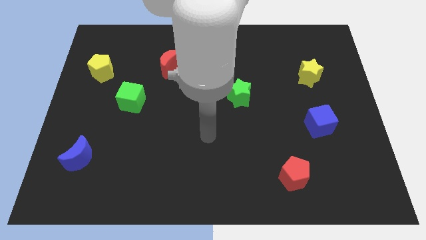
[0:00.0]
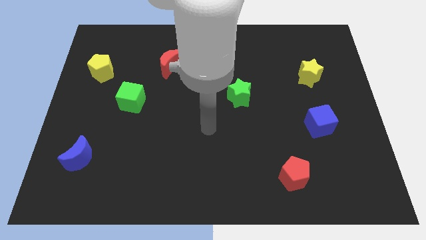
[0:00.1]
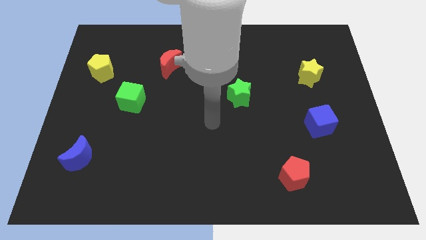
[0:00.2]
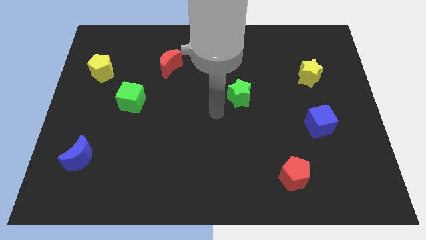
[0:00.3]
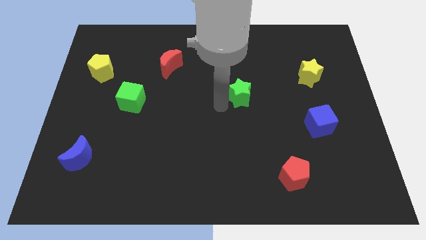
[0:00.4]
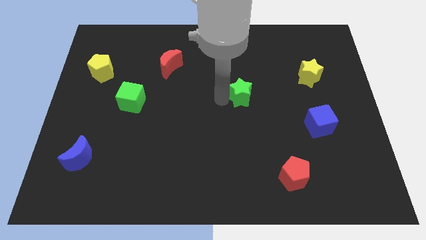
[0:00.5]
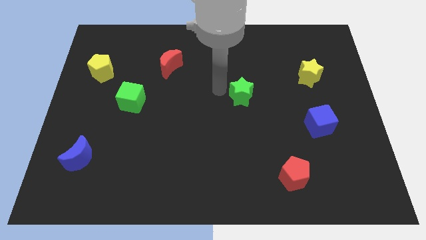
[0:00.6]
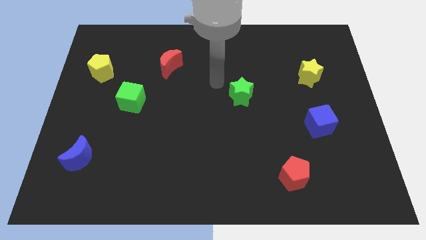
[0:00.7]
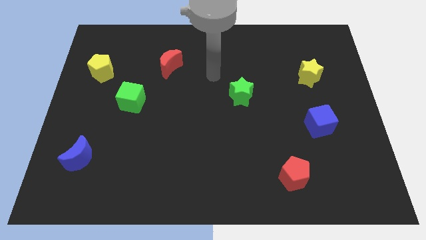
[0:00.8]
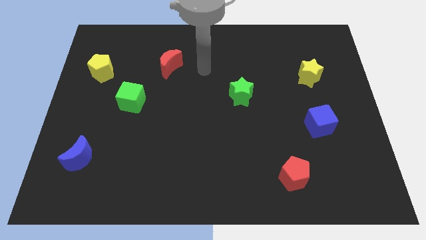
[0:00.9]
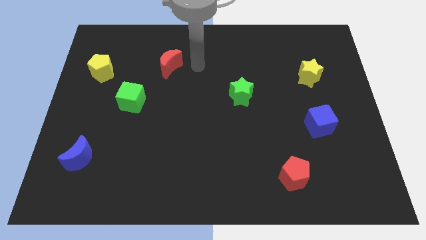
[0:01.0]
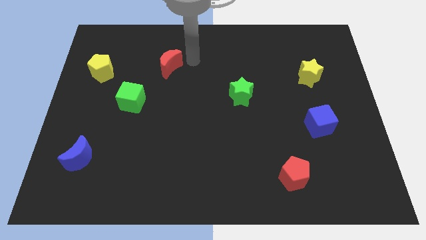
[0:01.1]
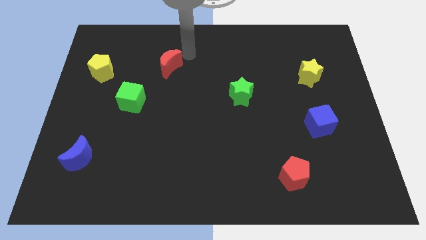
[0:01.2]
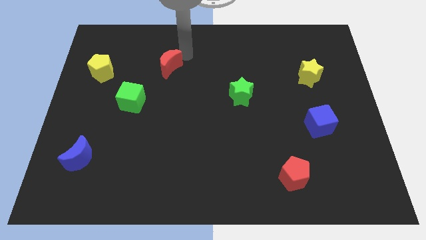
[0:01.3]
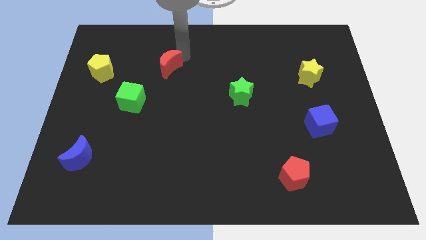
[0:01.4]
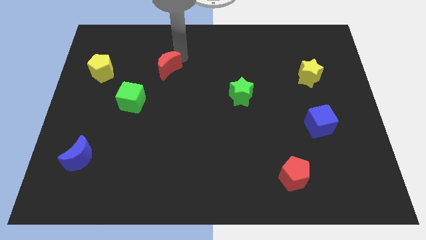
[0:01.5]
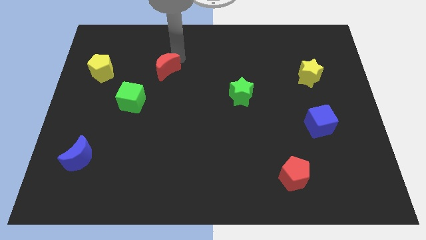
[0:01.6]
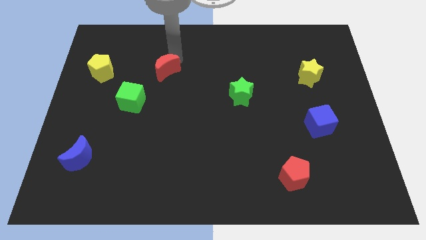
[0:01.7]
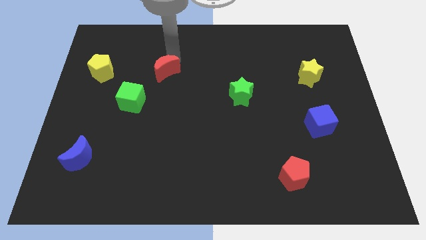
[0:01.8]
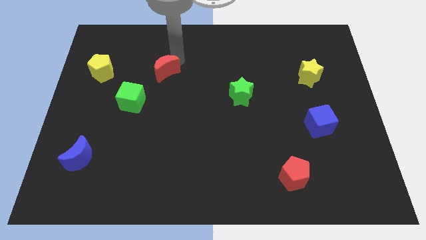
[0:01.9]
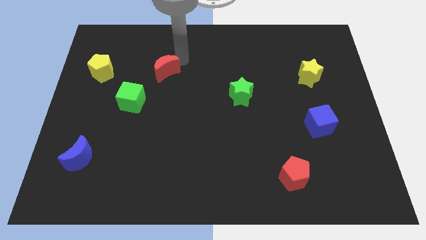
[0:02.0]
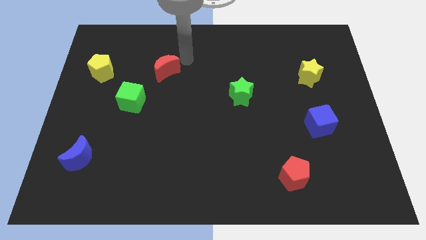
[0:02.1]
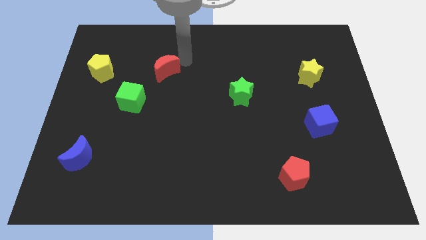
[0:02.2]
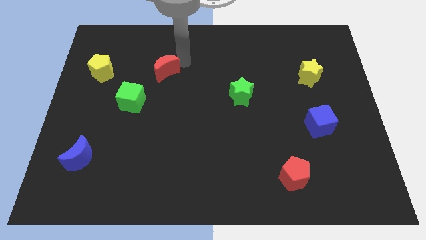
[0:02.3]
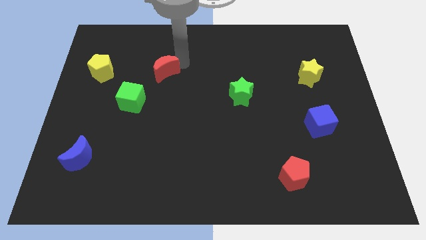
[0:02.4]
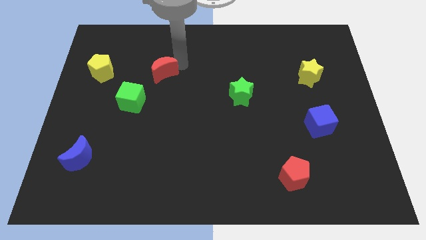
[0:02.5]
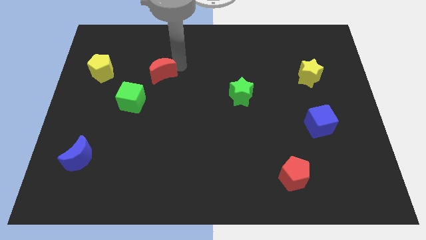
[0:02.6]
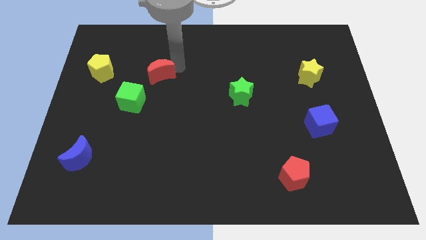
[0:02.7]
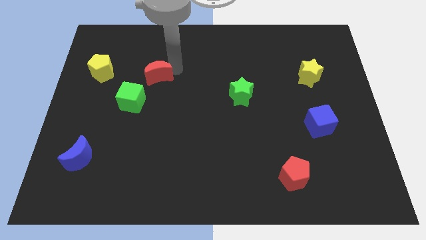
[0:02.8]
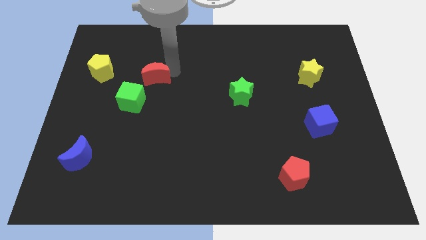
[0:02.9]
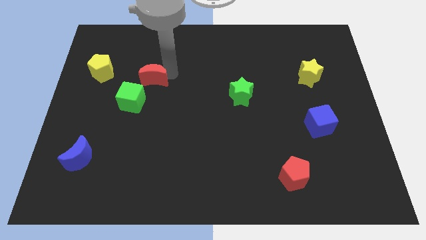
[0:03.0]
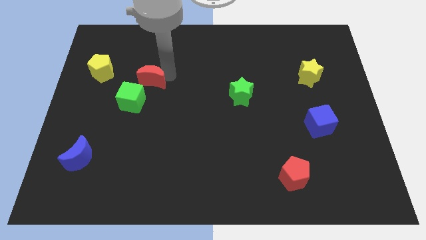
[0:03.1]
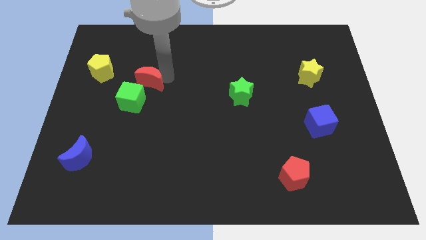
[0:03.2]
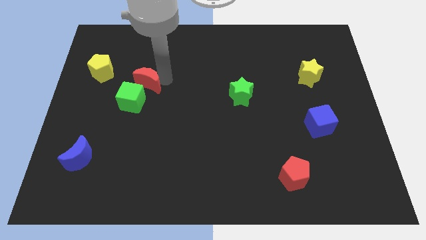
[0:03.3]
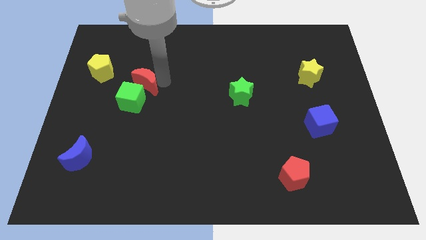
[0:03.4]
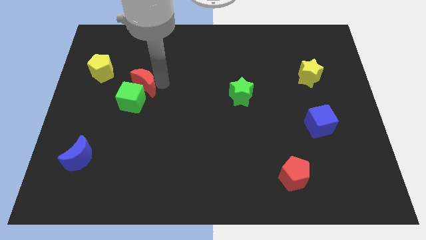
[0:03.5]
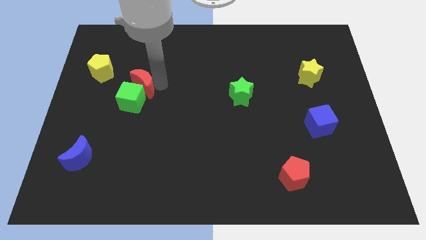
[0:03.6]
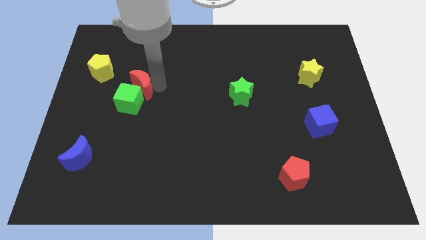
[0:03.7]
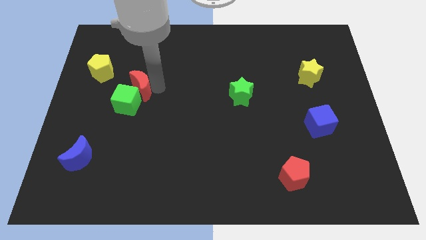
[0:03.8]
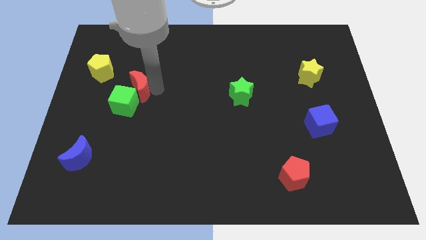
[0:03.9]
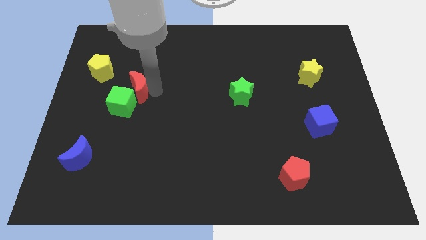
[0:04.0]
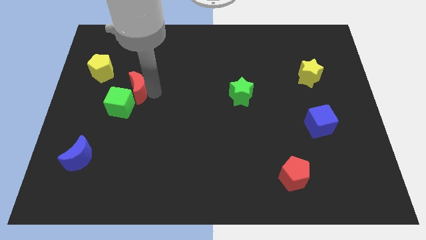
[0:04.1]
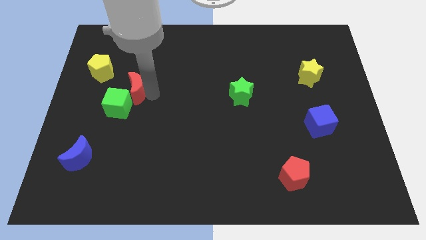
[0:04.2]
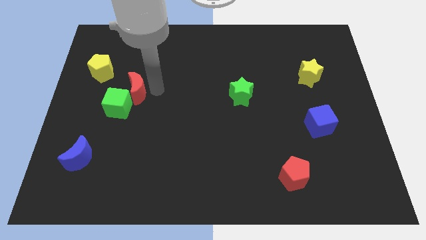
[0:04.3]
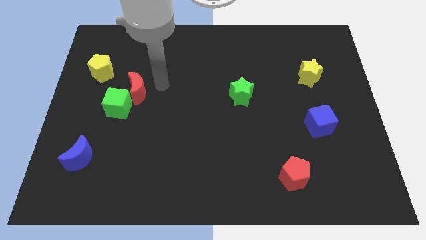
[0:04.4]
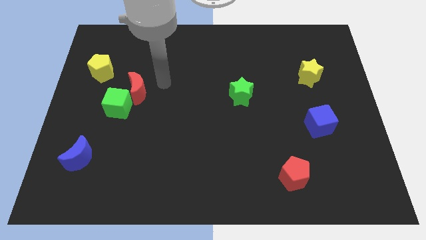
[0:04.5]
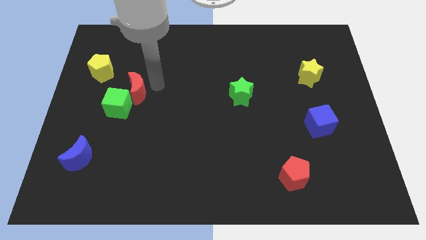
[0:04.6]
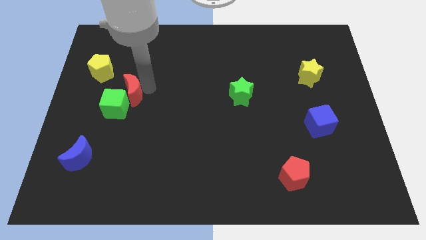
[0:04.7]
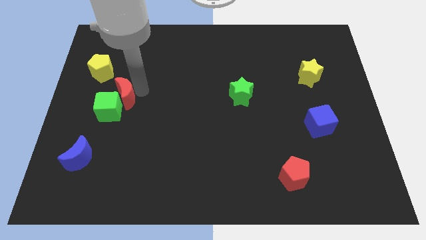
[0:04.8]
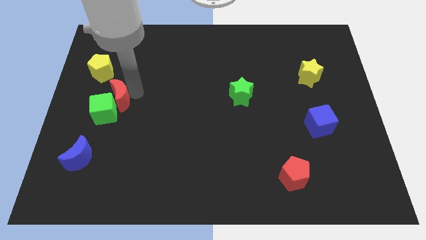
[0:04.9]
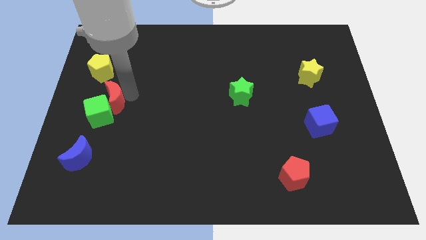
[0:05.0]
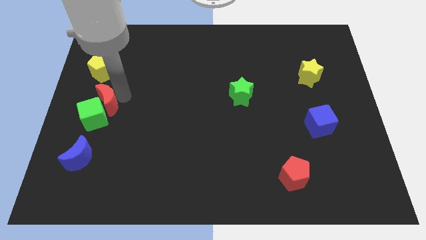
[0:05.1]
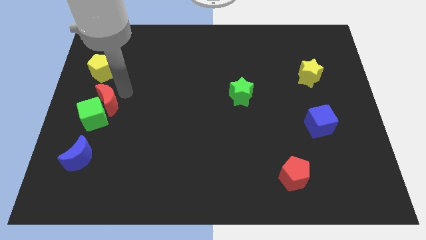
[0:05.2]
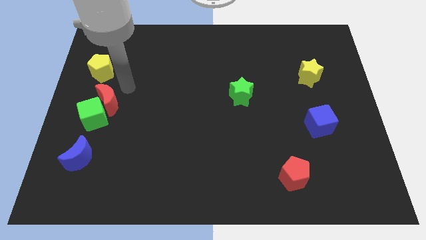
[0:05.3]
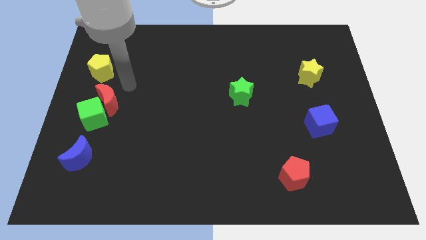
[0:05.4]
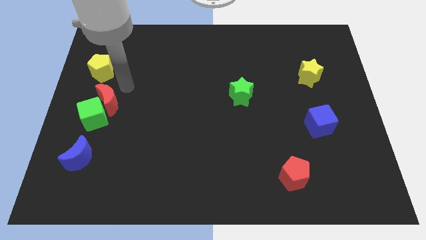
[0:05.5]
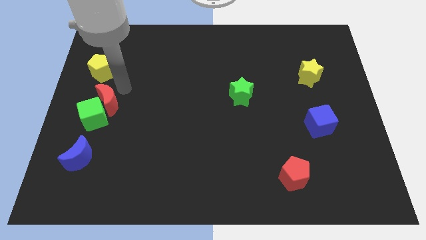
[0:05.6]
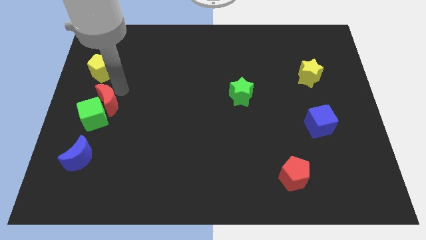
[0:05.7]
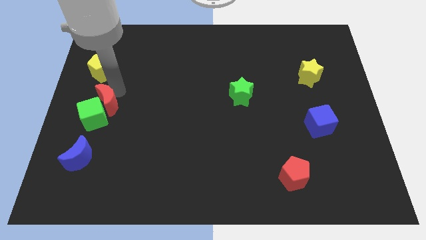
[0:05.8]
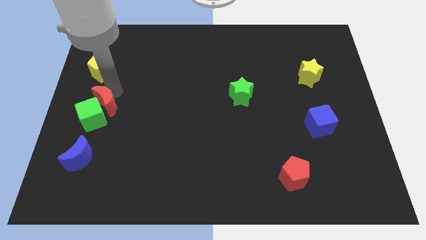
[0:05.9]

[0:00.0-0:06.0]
slide the red moon to the top of the blue moon

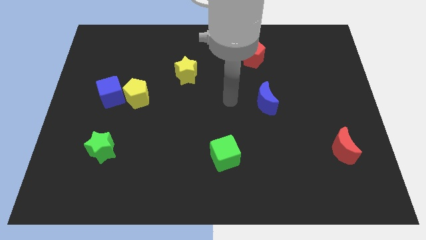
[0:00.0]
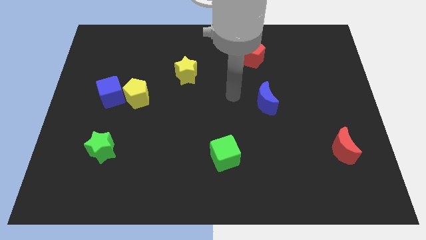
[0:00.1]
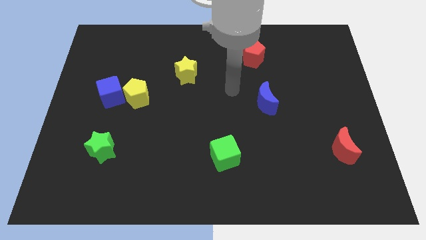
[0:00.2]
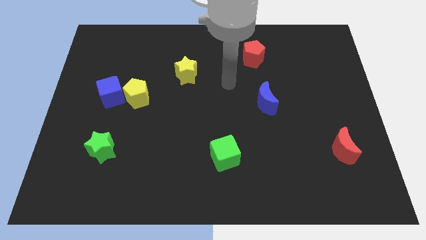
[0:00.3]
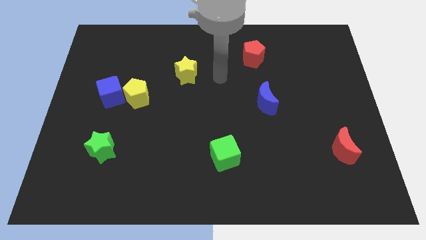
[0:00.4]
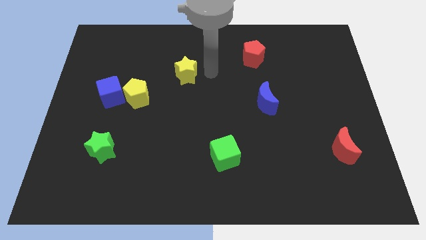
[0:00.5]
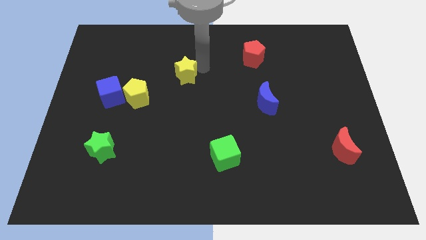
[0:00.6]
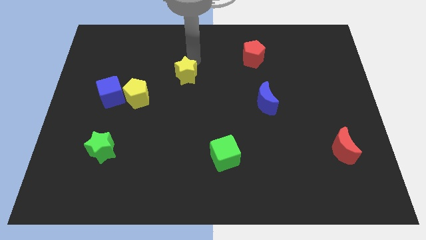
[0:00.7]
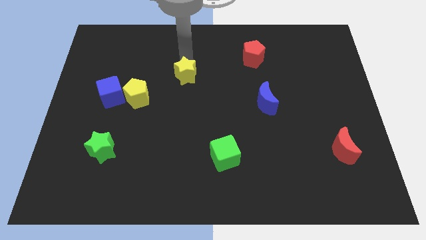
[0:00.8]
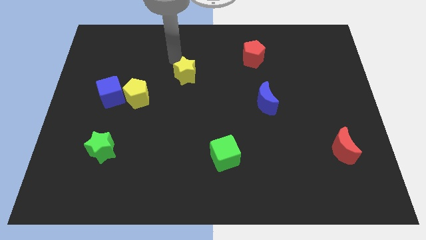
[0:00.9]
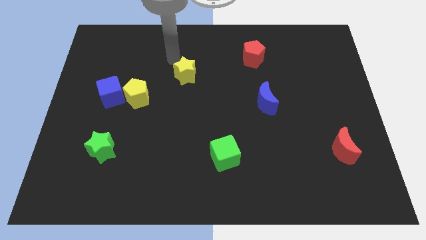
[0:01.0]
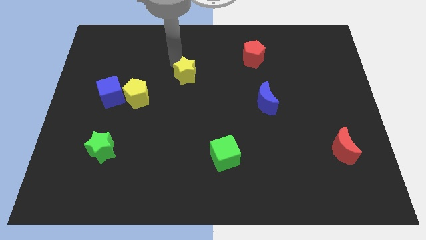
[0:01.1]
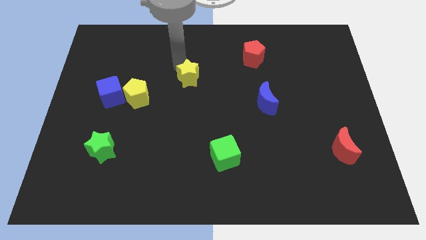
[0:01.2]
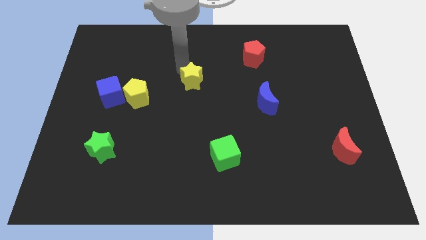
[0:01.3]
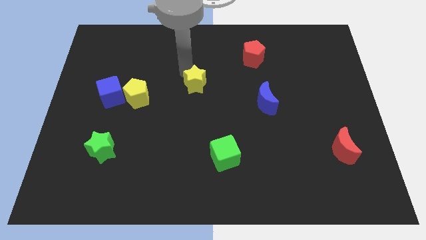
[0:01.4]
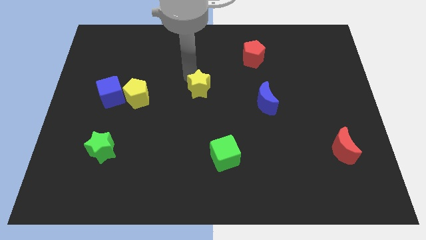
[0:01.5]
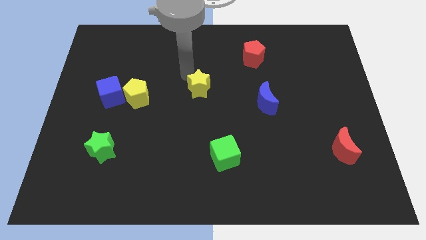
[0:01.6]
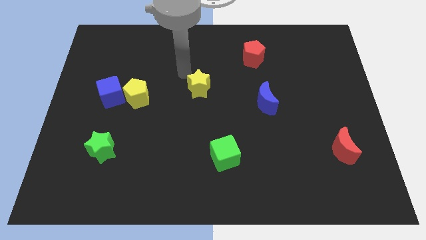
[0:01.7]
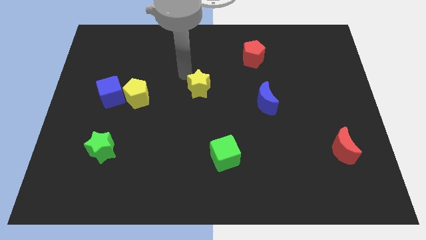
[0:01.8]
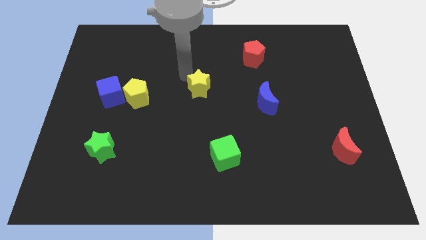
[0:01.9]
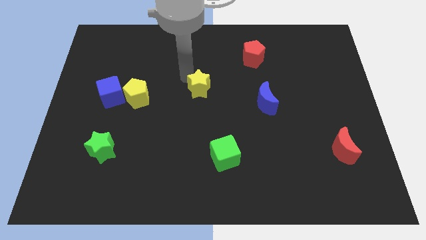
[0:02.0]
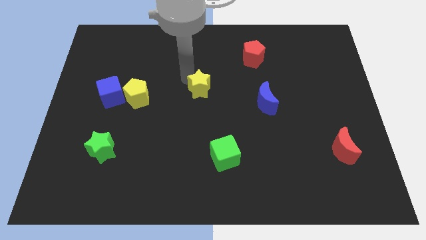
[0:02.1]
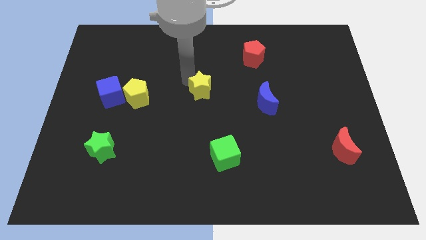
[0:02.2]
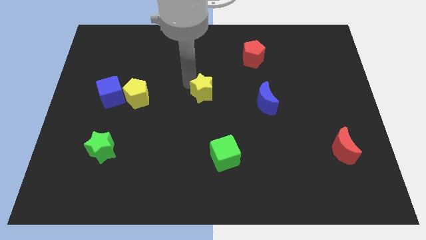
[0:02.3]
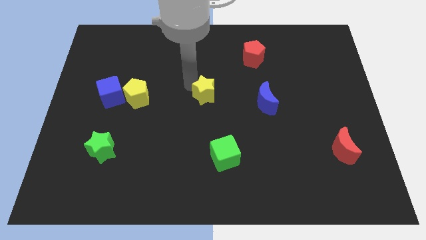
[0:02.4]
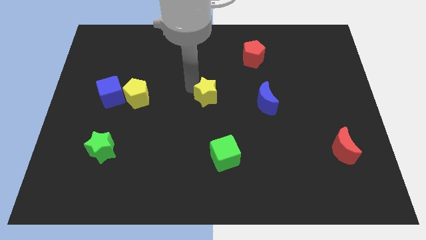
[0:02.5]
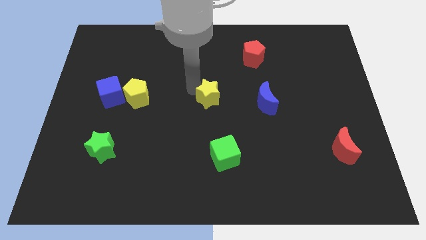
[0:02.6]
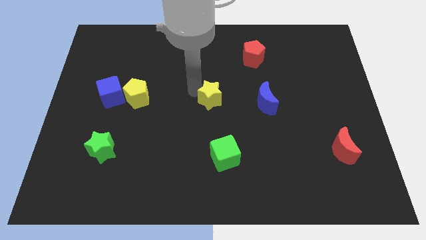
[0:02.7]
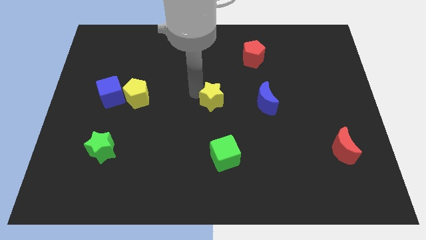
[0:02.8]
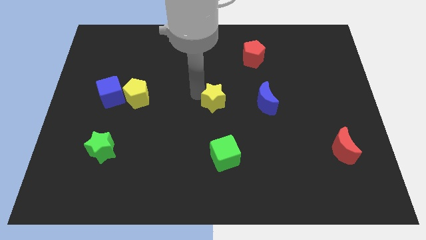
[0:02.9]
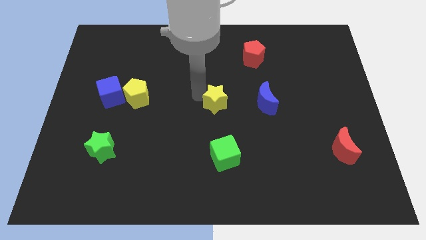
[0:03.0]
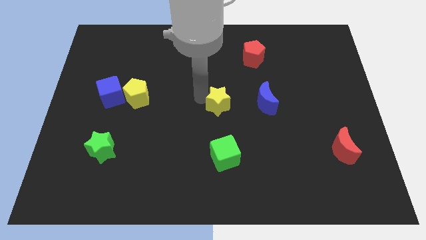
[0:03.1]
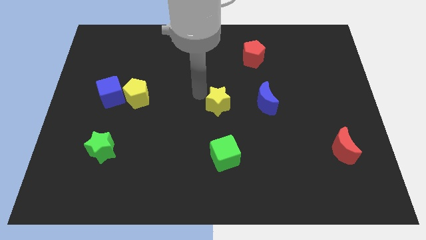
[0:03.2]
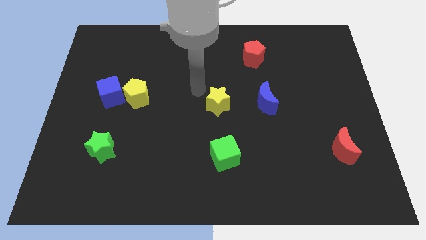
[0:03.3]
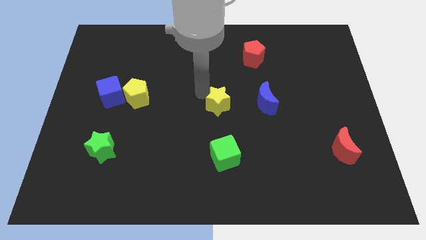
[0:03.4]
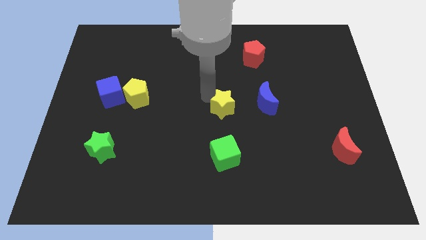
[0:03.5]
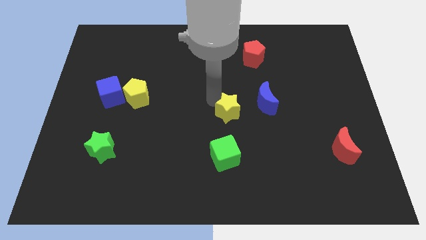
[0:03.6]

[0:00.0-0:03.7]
push the yellow star to the bottom left of the blue moon
